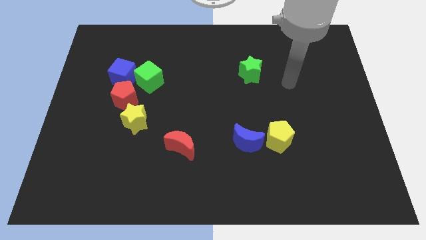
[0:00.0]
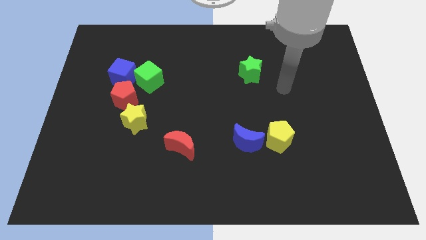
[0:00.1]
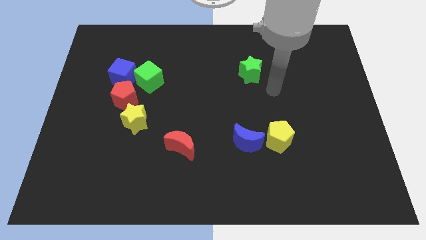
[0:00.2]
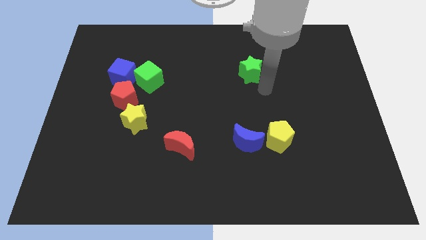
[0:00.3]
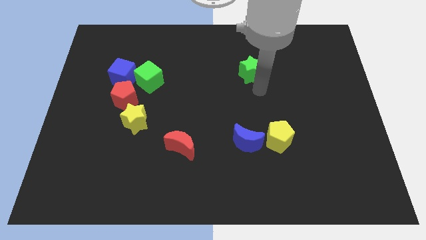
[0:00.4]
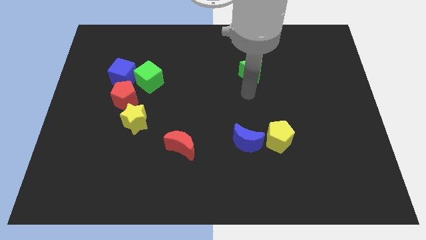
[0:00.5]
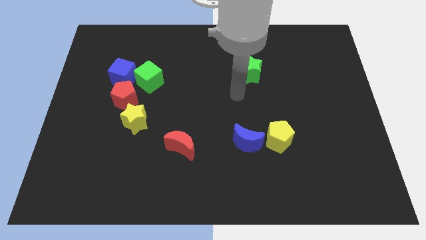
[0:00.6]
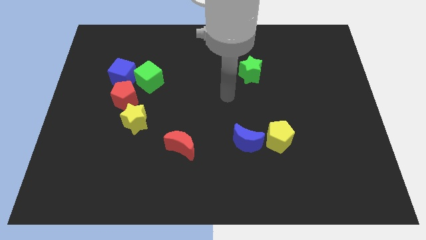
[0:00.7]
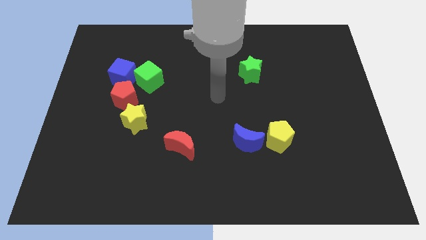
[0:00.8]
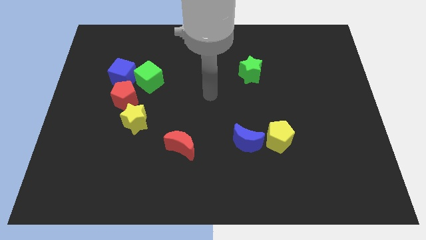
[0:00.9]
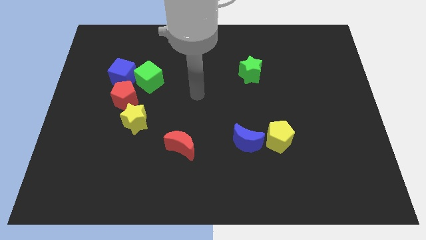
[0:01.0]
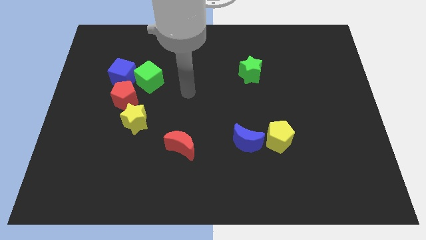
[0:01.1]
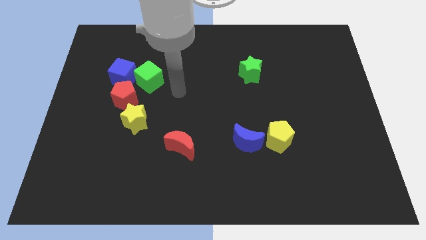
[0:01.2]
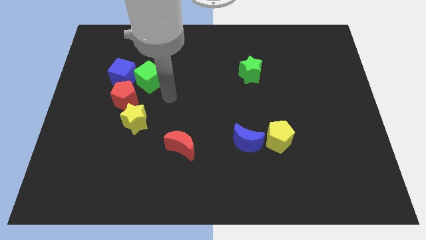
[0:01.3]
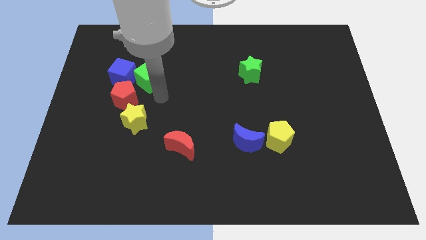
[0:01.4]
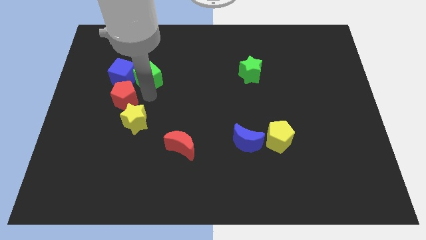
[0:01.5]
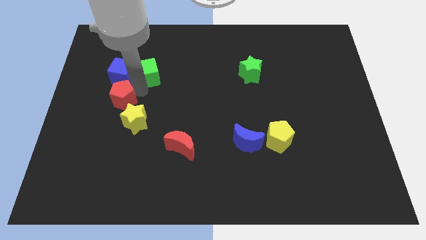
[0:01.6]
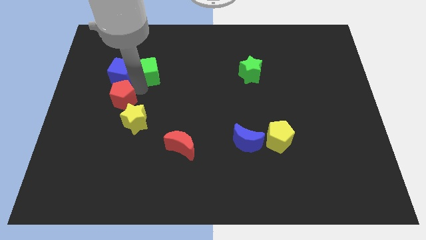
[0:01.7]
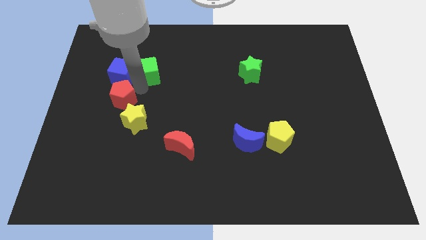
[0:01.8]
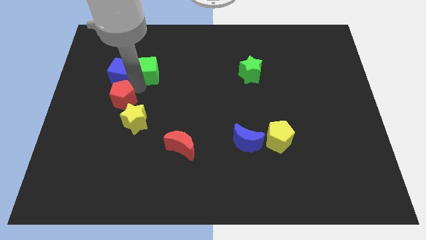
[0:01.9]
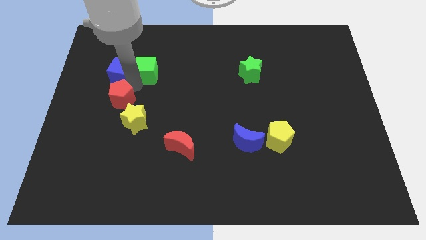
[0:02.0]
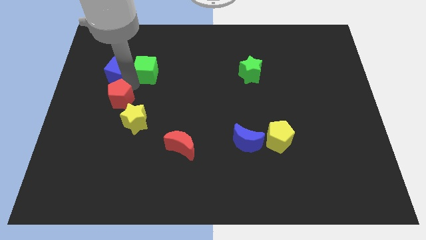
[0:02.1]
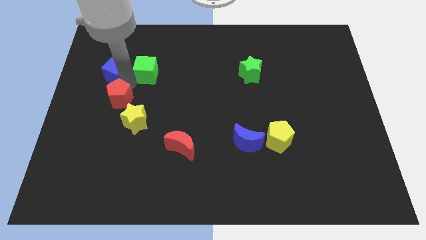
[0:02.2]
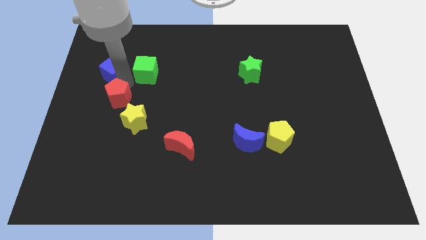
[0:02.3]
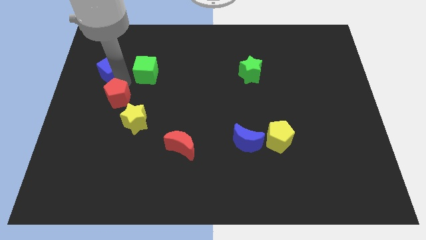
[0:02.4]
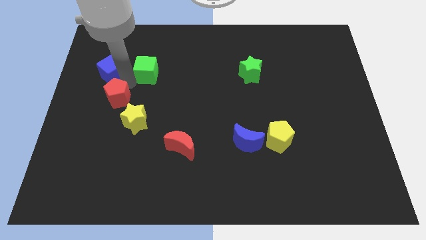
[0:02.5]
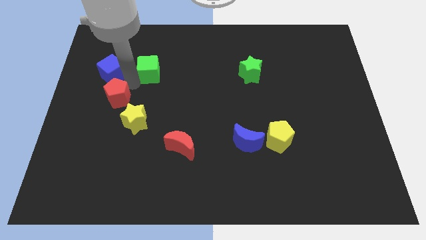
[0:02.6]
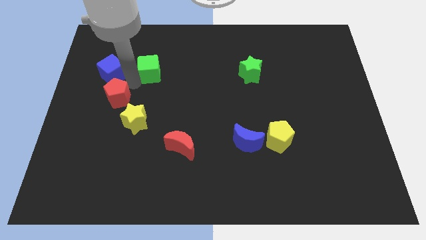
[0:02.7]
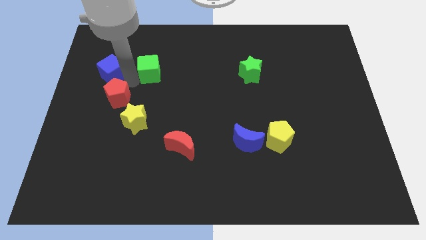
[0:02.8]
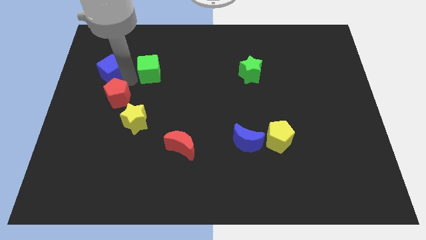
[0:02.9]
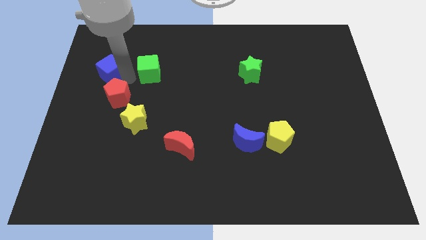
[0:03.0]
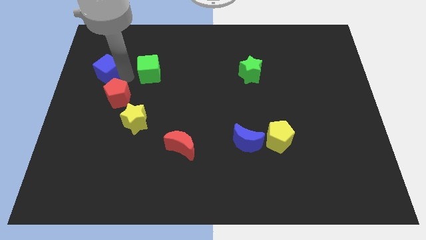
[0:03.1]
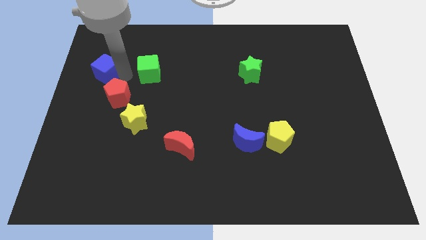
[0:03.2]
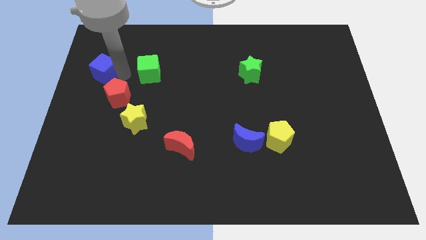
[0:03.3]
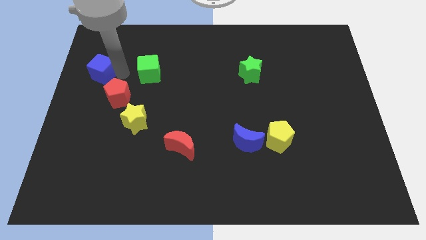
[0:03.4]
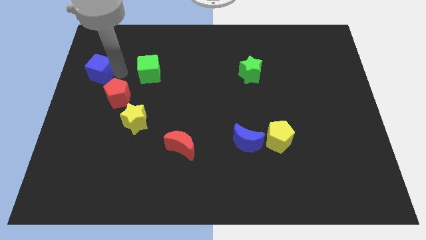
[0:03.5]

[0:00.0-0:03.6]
pull the blue cube apart from the green cube and red pentagon

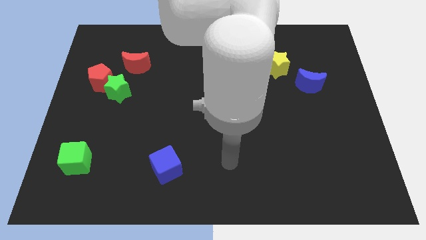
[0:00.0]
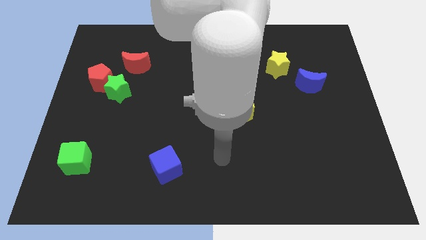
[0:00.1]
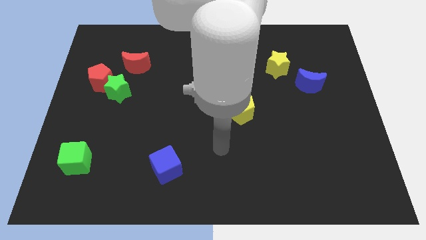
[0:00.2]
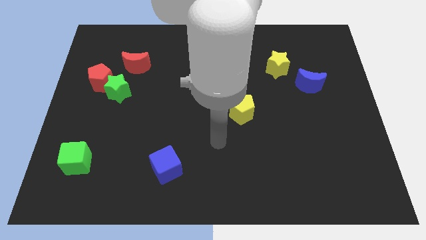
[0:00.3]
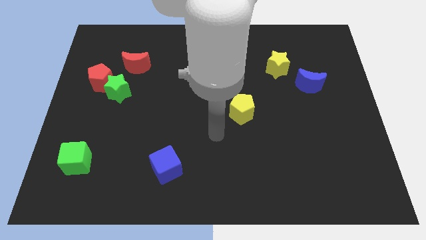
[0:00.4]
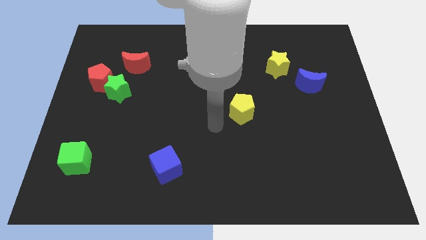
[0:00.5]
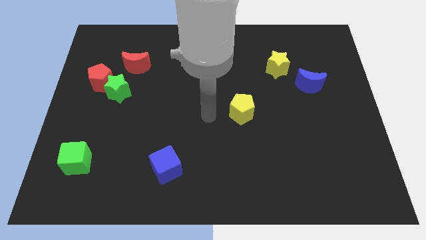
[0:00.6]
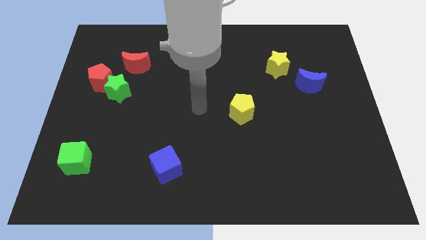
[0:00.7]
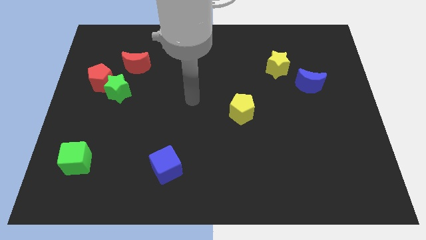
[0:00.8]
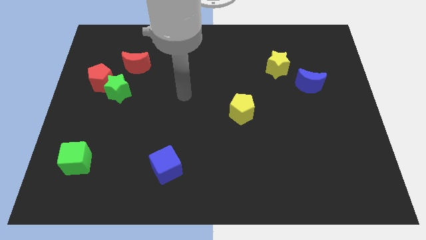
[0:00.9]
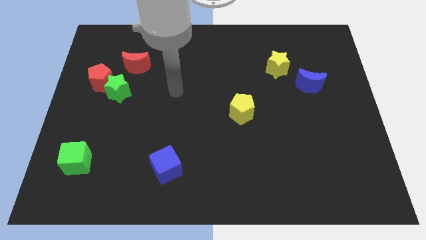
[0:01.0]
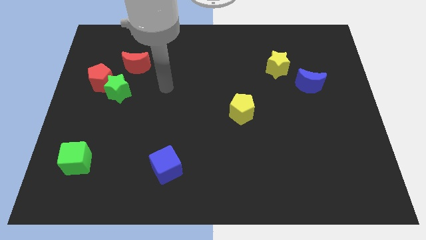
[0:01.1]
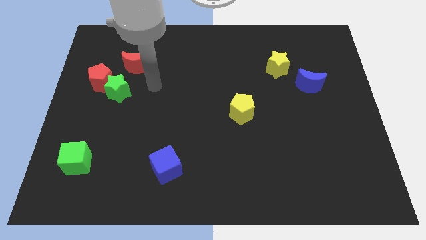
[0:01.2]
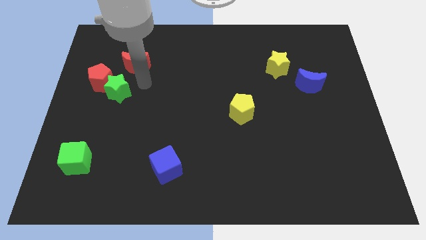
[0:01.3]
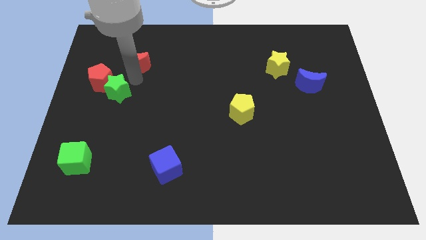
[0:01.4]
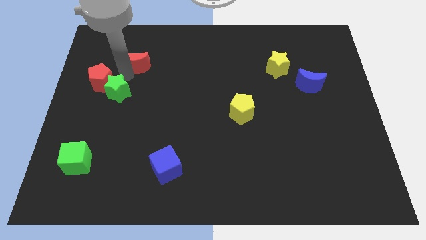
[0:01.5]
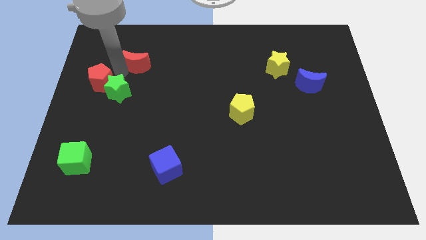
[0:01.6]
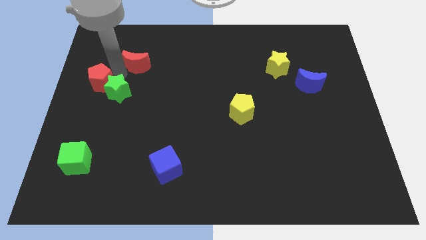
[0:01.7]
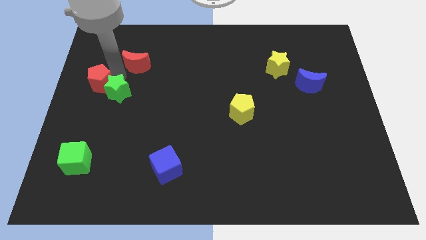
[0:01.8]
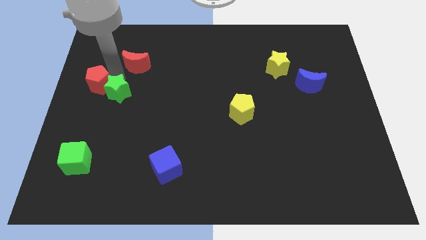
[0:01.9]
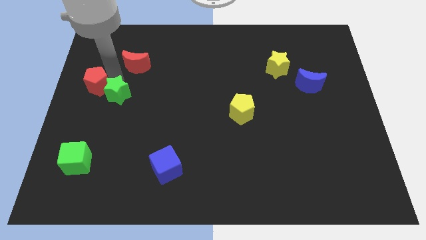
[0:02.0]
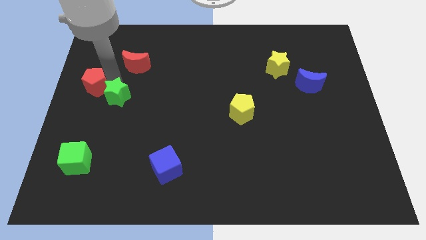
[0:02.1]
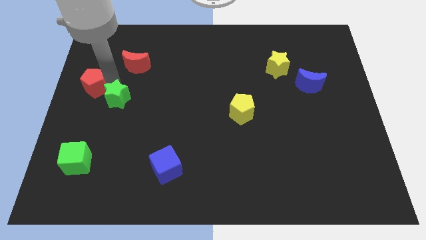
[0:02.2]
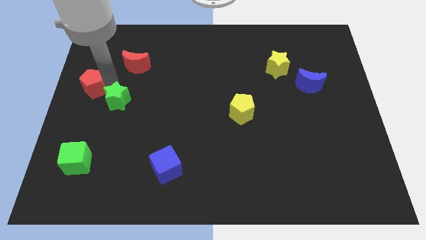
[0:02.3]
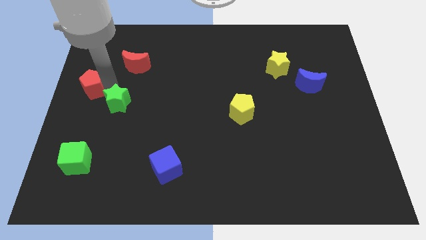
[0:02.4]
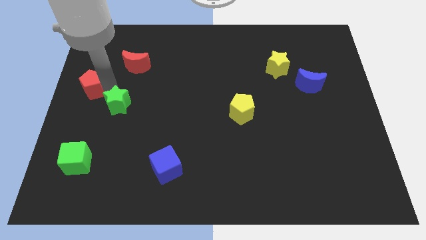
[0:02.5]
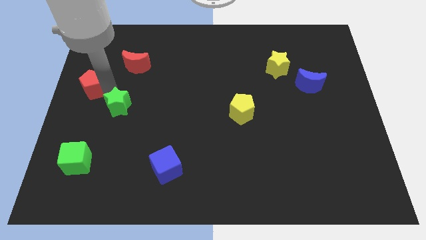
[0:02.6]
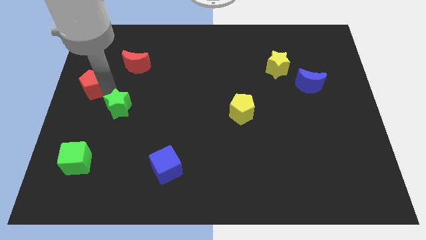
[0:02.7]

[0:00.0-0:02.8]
move the green star away from the red pentagon and red moon

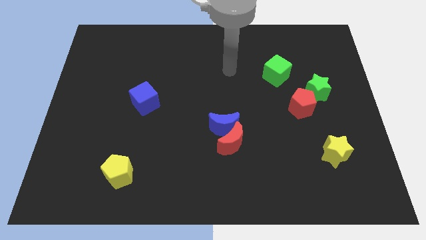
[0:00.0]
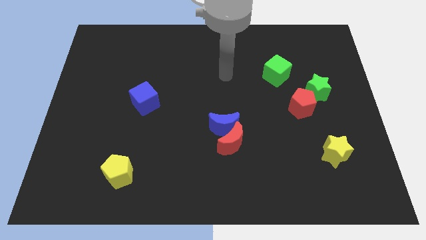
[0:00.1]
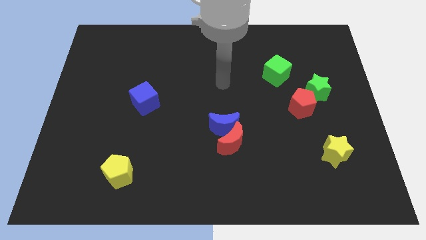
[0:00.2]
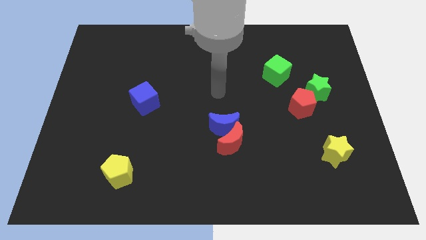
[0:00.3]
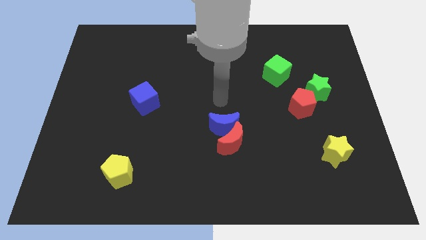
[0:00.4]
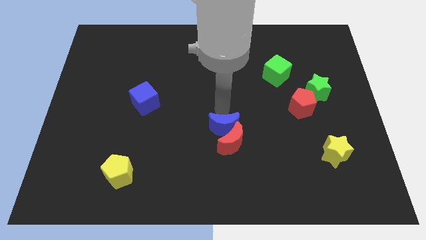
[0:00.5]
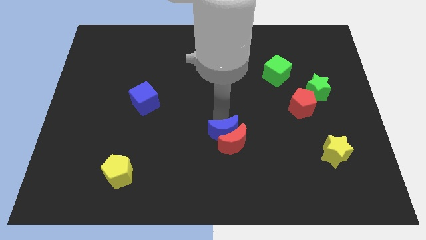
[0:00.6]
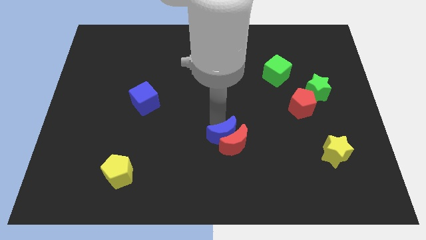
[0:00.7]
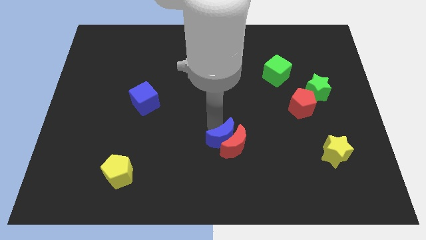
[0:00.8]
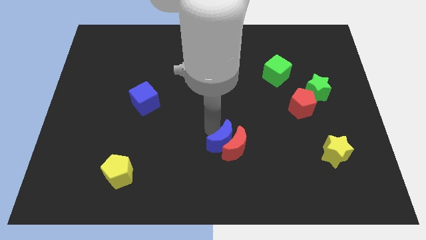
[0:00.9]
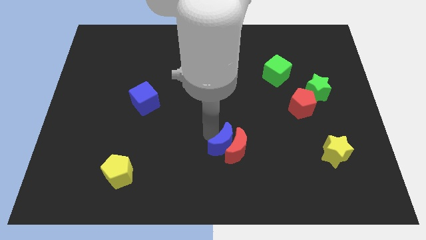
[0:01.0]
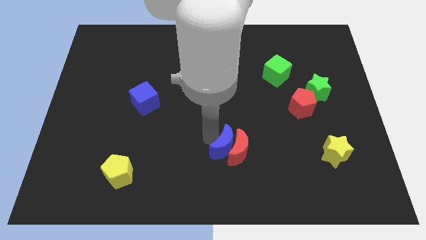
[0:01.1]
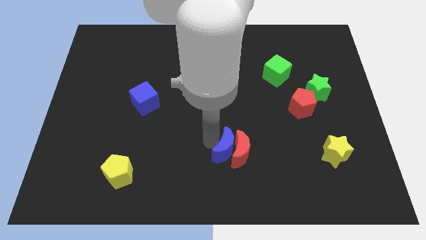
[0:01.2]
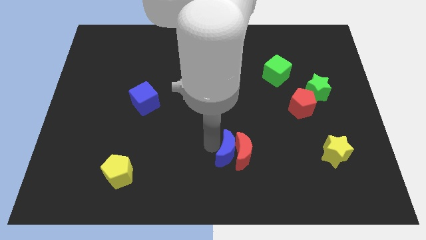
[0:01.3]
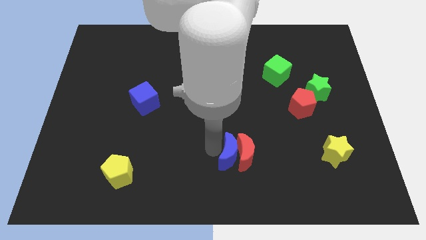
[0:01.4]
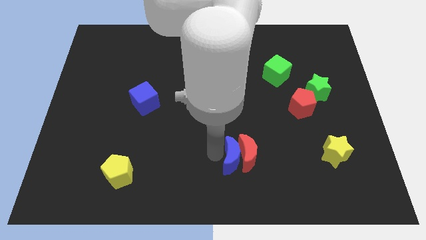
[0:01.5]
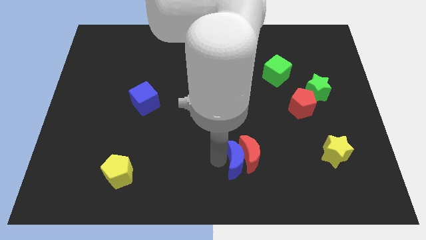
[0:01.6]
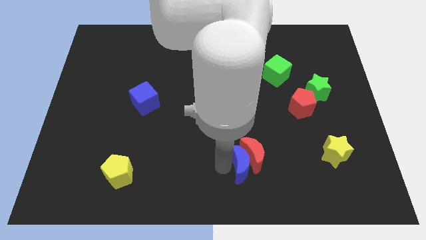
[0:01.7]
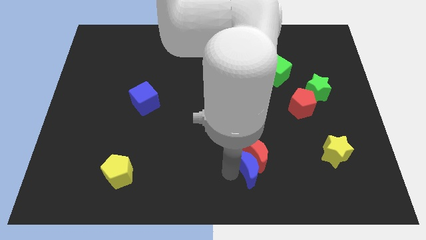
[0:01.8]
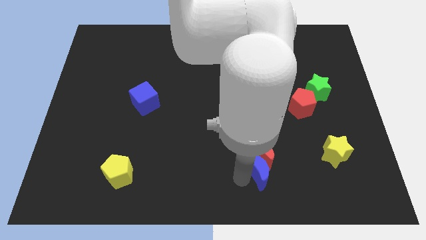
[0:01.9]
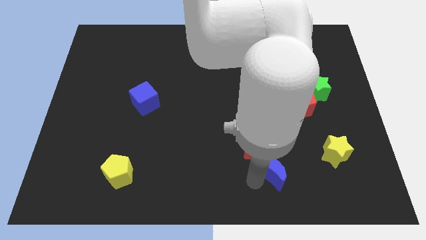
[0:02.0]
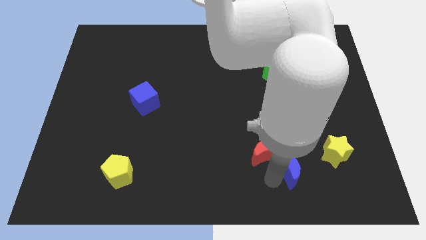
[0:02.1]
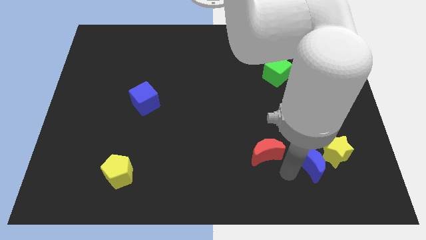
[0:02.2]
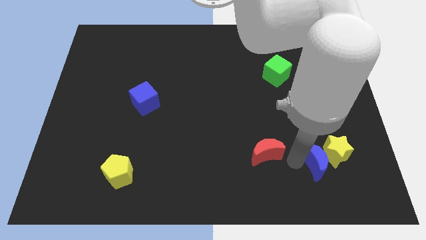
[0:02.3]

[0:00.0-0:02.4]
pull the red moon apart from the blue moon

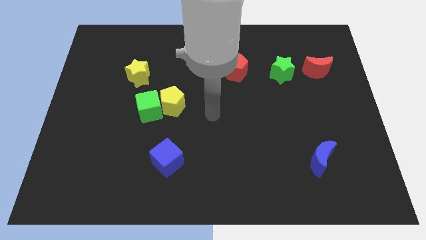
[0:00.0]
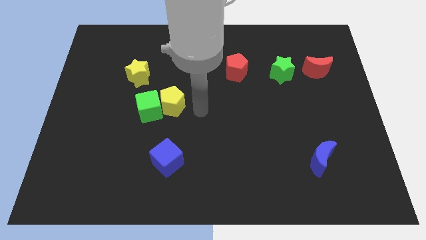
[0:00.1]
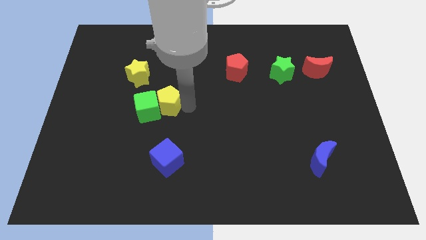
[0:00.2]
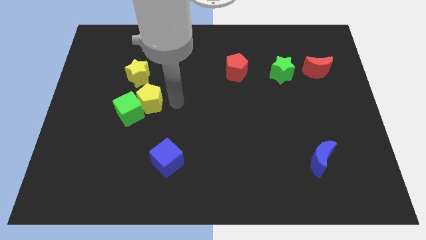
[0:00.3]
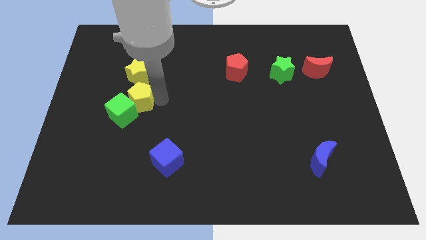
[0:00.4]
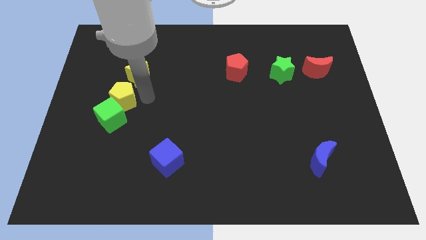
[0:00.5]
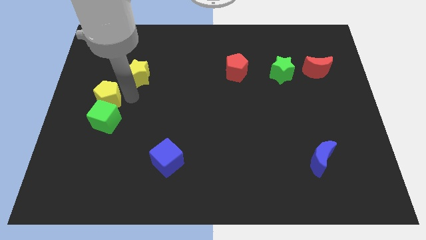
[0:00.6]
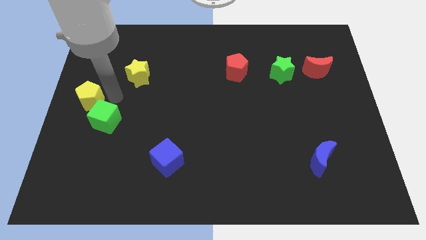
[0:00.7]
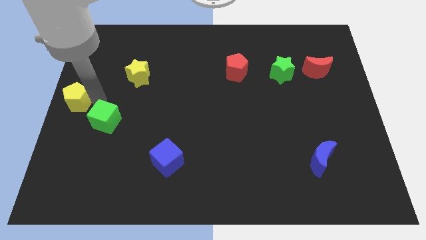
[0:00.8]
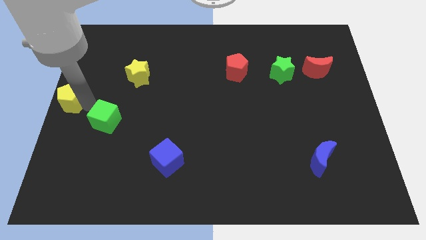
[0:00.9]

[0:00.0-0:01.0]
separate the green cube from the yellow pentagon
